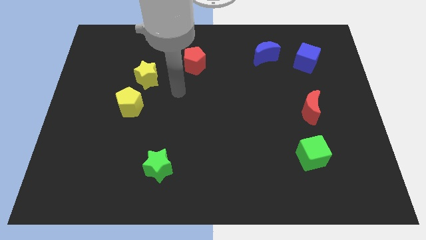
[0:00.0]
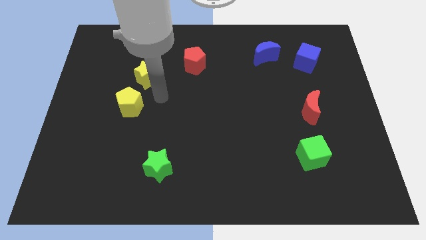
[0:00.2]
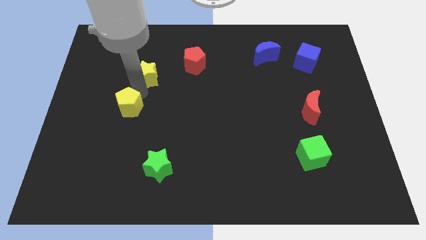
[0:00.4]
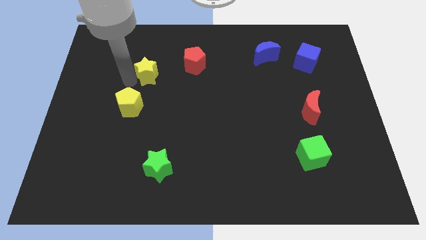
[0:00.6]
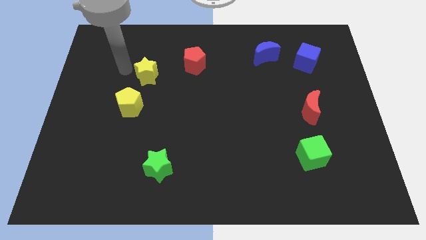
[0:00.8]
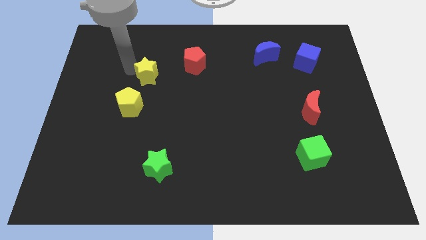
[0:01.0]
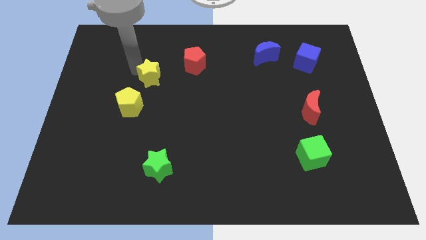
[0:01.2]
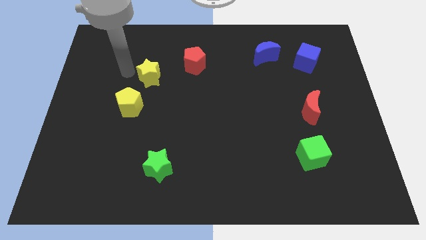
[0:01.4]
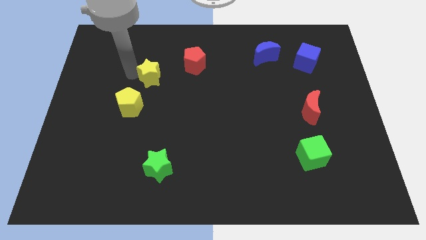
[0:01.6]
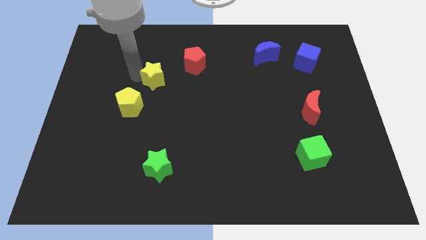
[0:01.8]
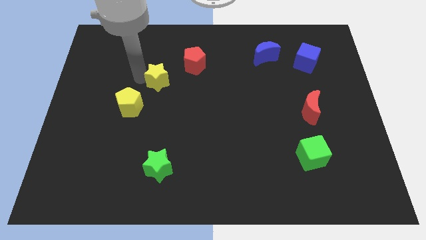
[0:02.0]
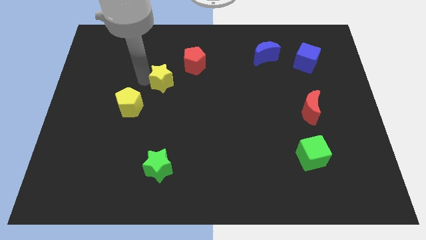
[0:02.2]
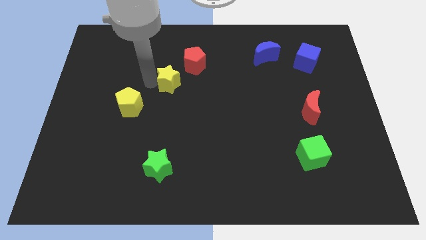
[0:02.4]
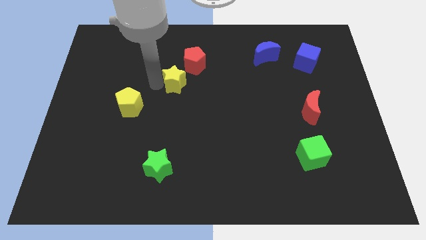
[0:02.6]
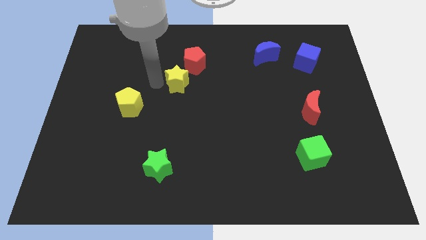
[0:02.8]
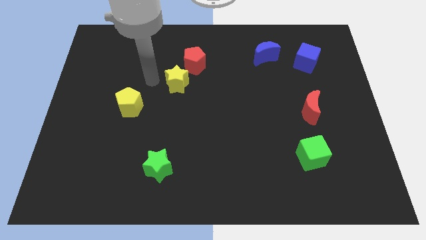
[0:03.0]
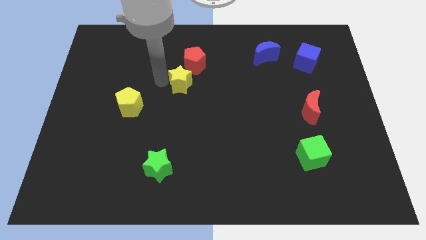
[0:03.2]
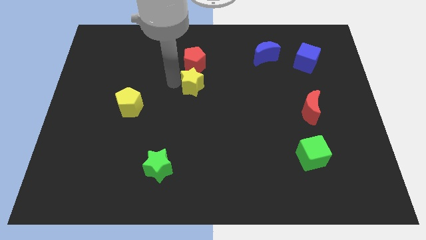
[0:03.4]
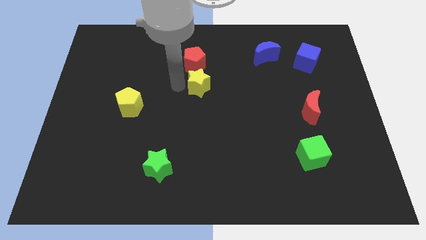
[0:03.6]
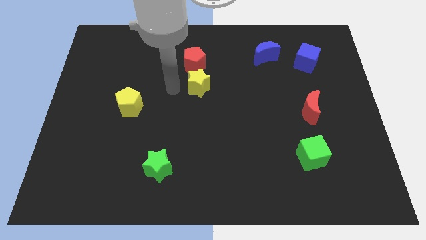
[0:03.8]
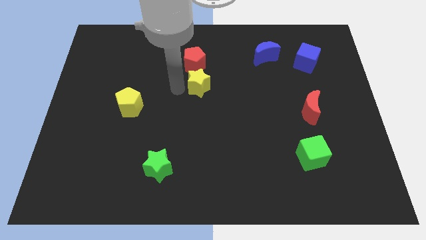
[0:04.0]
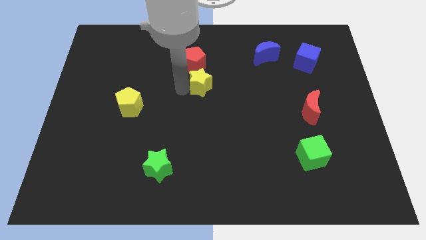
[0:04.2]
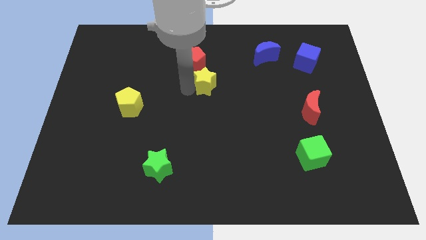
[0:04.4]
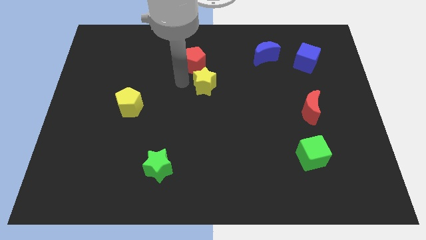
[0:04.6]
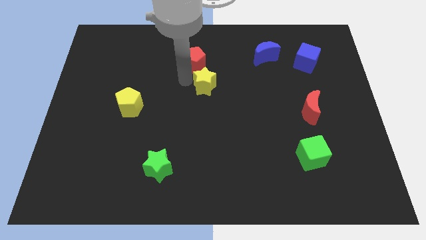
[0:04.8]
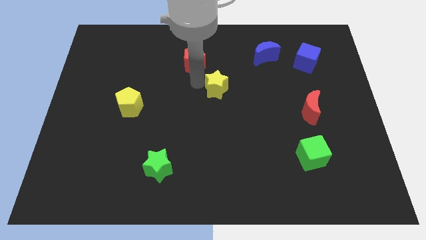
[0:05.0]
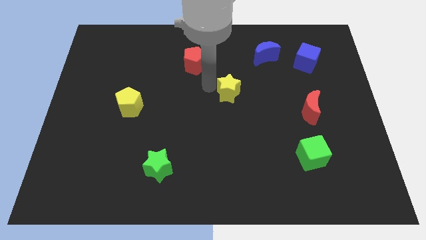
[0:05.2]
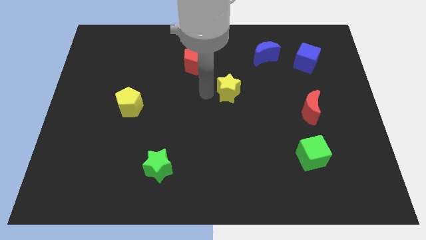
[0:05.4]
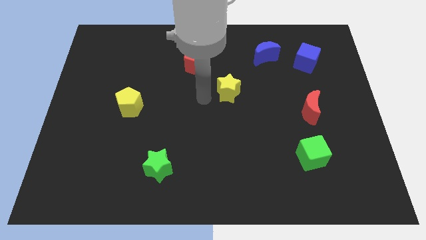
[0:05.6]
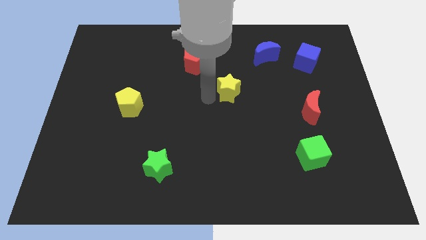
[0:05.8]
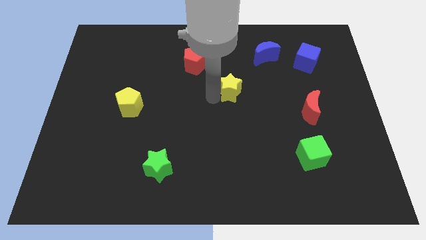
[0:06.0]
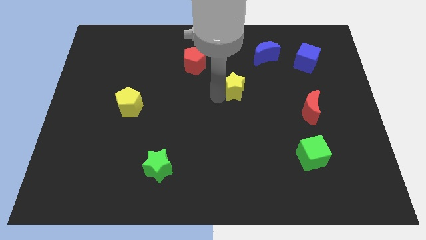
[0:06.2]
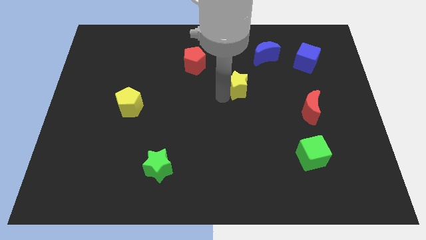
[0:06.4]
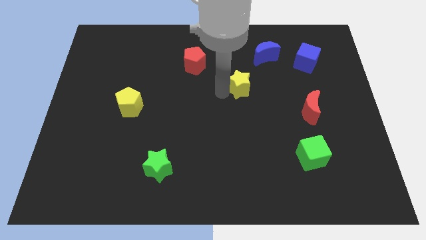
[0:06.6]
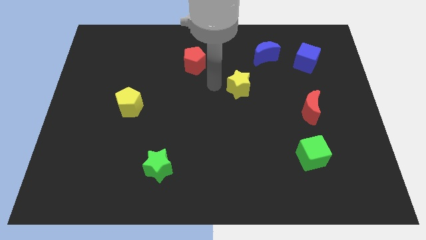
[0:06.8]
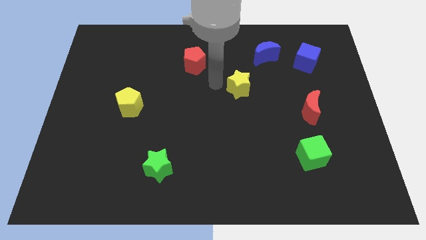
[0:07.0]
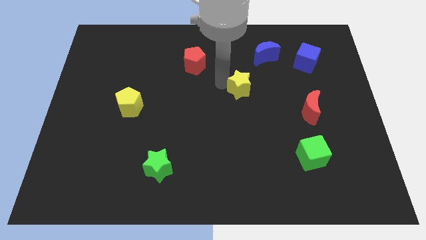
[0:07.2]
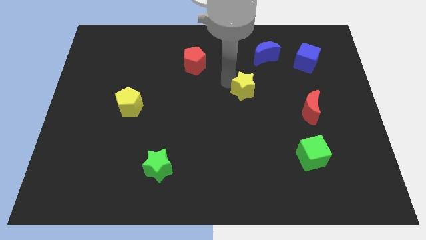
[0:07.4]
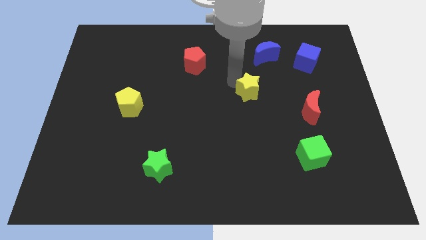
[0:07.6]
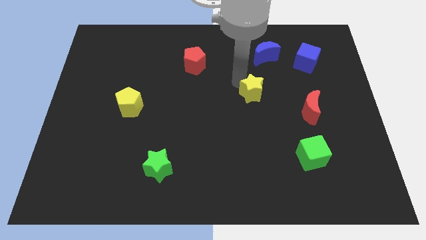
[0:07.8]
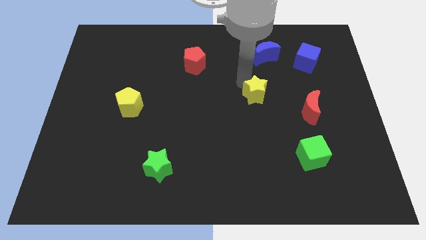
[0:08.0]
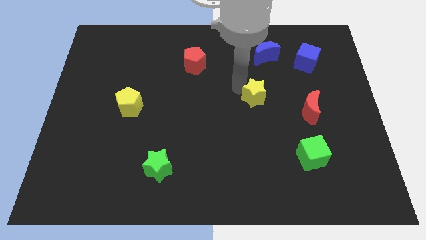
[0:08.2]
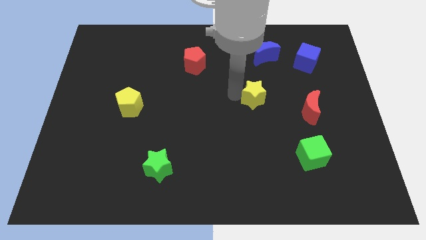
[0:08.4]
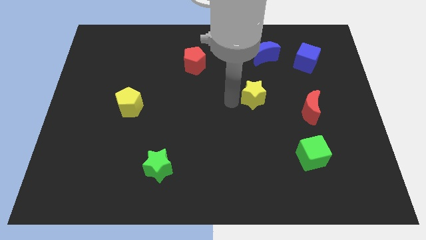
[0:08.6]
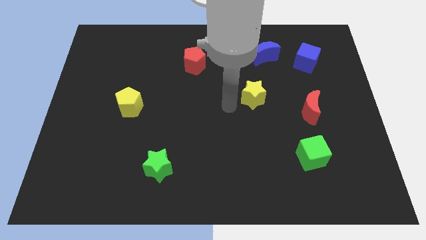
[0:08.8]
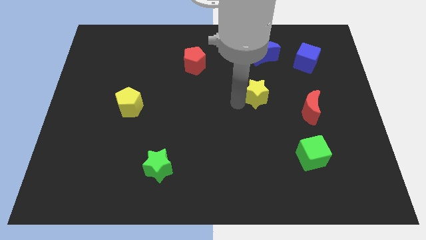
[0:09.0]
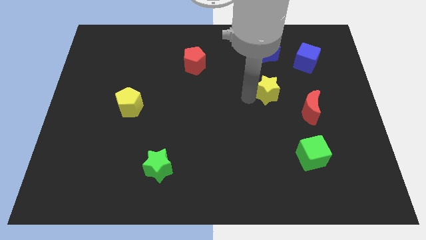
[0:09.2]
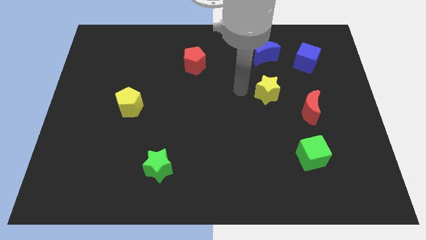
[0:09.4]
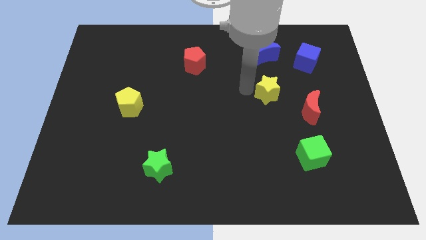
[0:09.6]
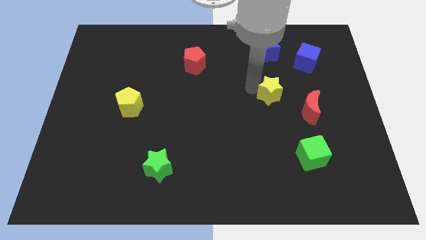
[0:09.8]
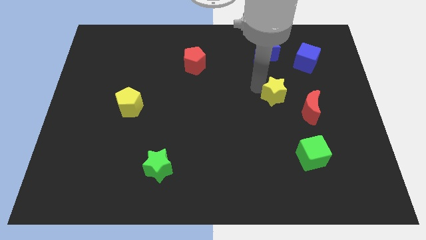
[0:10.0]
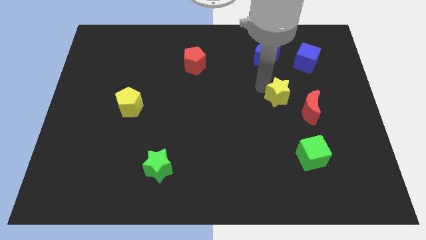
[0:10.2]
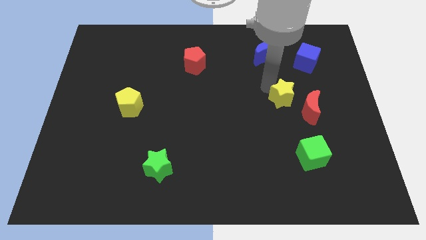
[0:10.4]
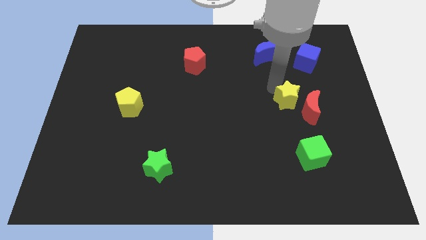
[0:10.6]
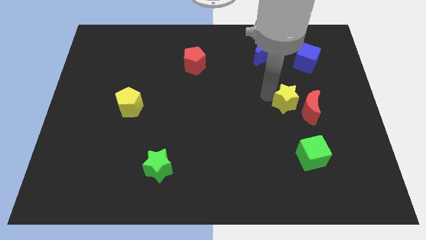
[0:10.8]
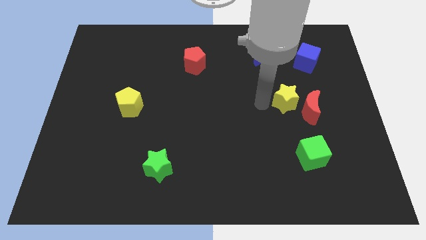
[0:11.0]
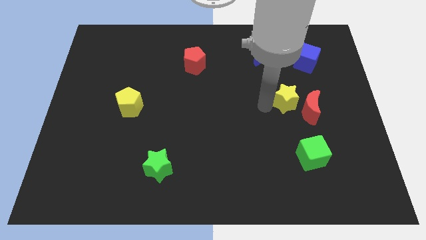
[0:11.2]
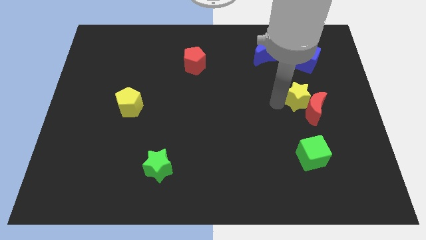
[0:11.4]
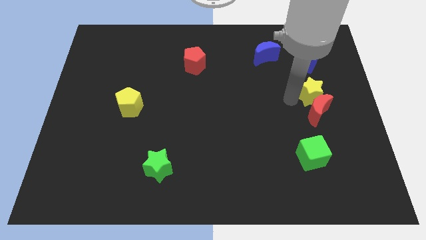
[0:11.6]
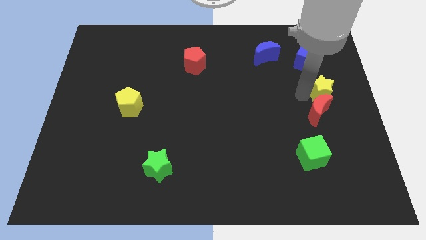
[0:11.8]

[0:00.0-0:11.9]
slide the yellow star to the right side of the board
